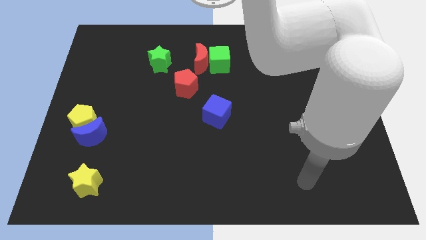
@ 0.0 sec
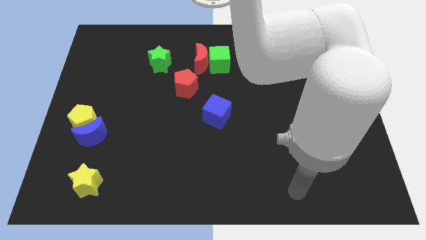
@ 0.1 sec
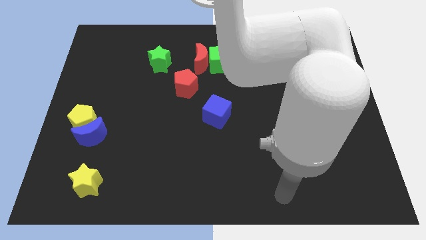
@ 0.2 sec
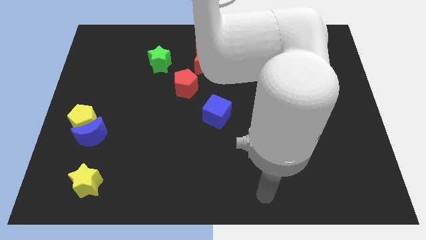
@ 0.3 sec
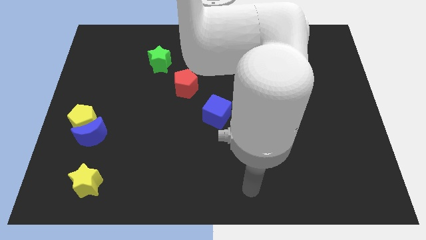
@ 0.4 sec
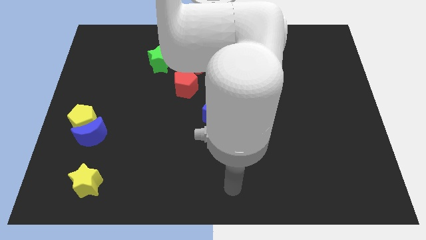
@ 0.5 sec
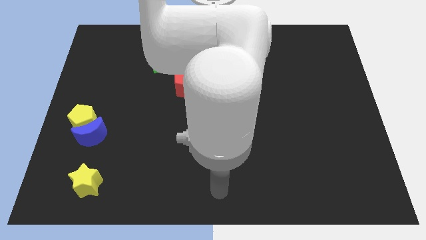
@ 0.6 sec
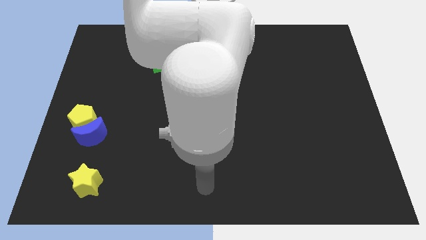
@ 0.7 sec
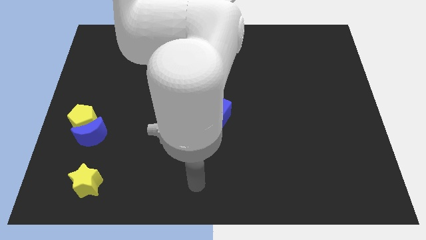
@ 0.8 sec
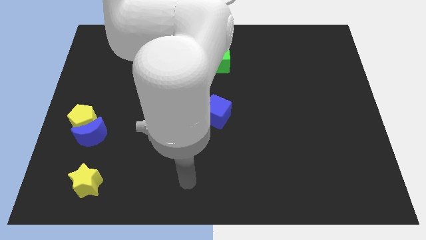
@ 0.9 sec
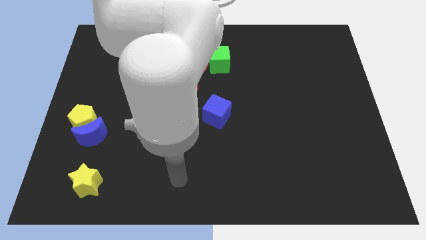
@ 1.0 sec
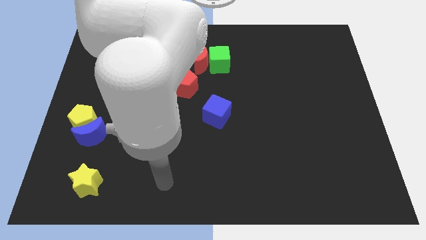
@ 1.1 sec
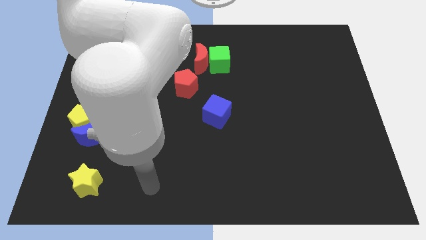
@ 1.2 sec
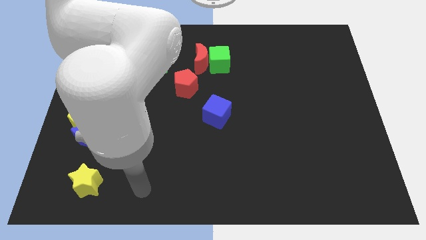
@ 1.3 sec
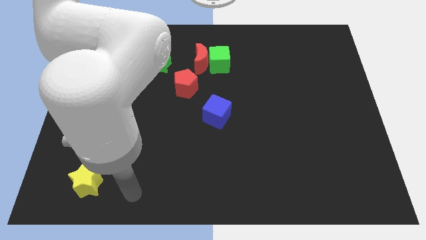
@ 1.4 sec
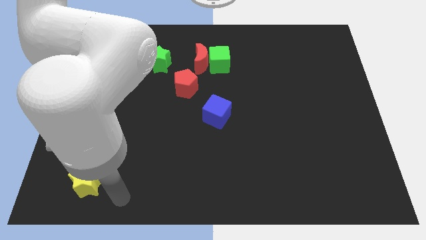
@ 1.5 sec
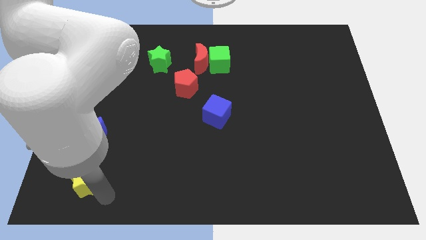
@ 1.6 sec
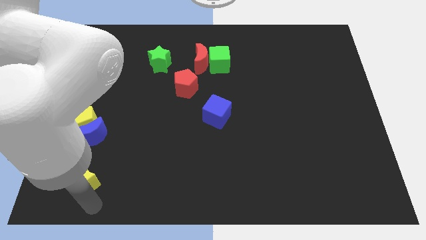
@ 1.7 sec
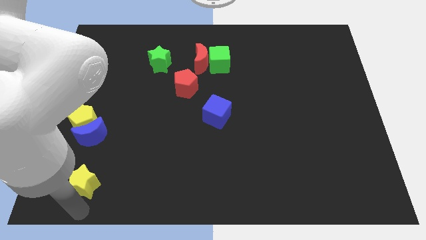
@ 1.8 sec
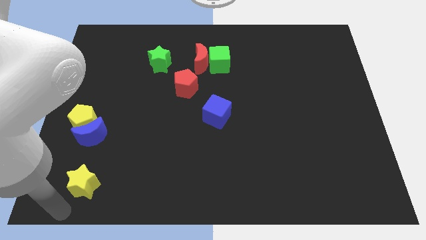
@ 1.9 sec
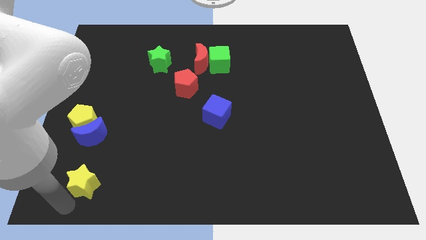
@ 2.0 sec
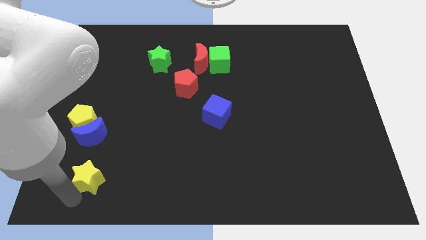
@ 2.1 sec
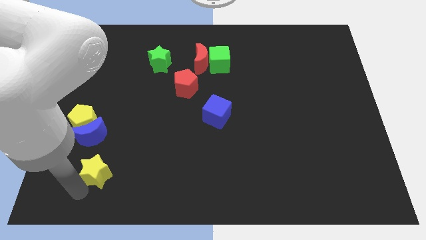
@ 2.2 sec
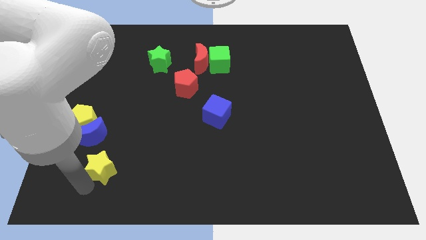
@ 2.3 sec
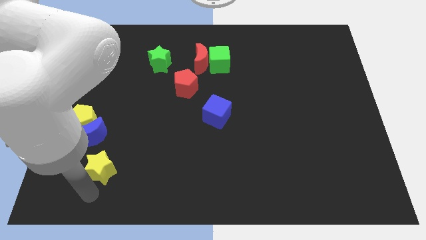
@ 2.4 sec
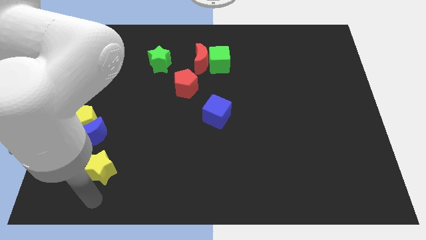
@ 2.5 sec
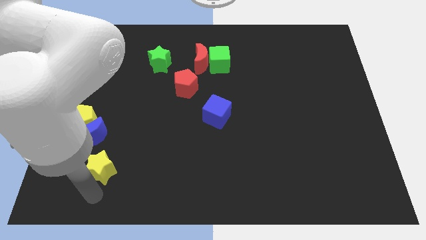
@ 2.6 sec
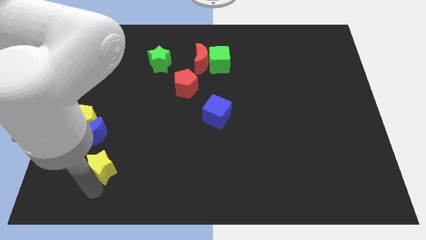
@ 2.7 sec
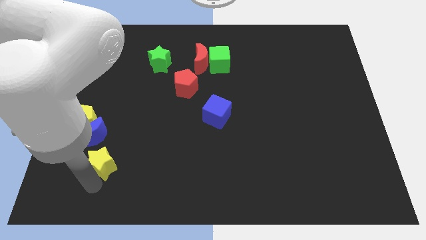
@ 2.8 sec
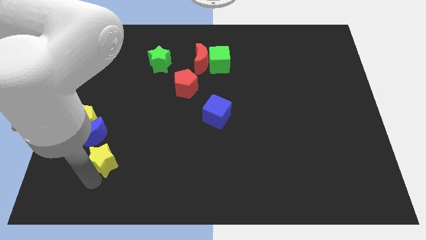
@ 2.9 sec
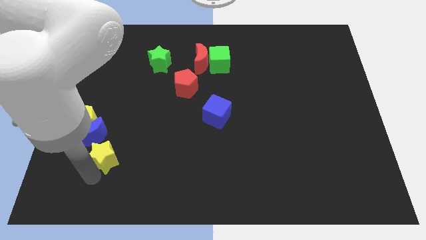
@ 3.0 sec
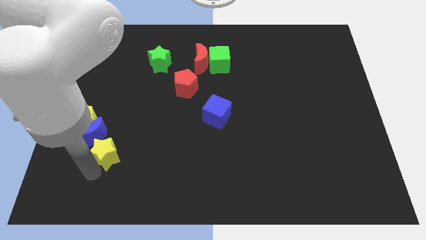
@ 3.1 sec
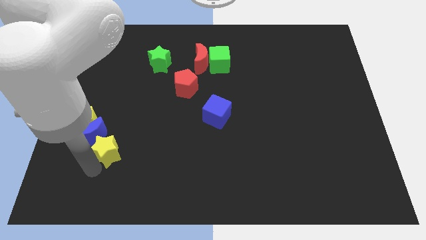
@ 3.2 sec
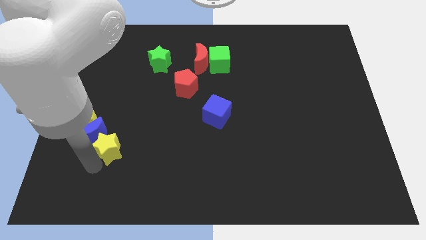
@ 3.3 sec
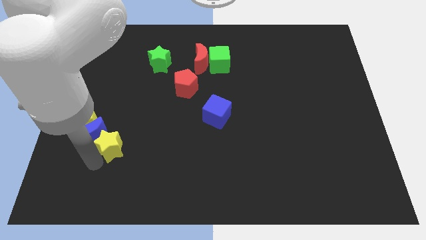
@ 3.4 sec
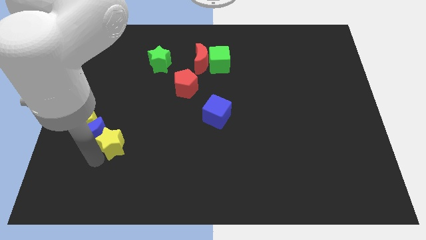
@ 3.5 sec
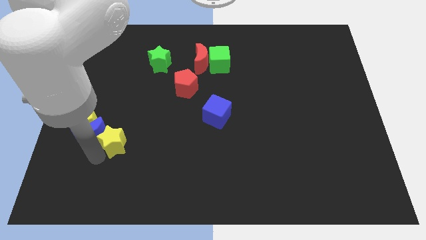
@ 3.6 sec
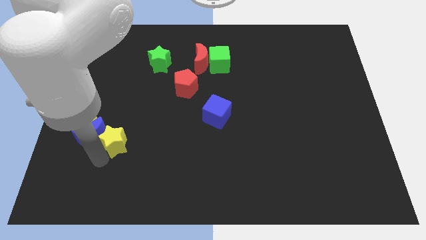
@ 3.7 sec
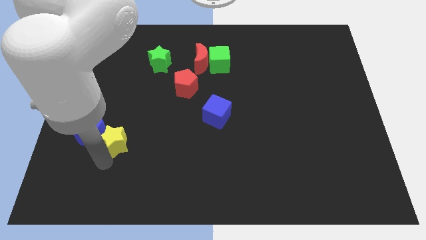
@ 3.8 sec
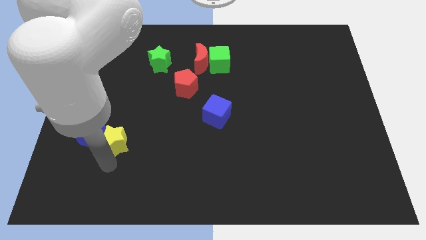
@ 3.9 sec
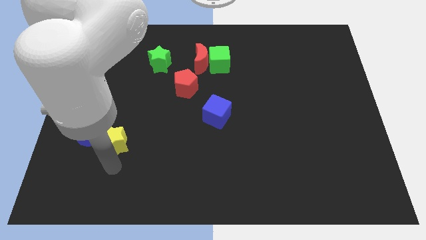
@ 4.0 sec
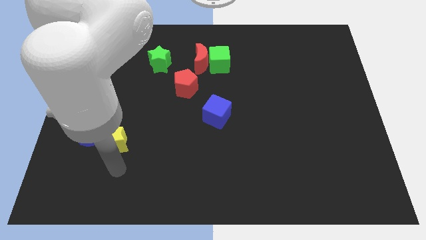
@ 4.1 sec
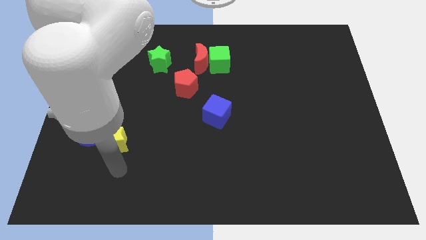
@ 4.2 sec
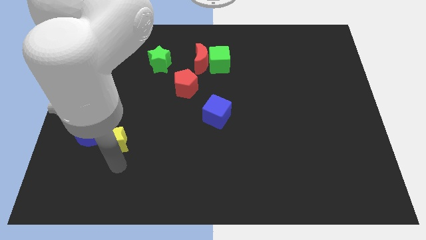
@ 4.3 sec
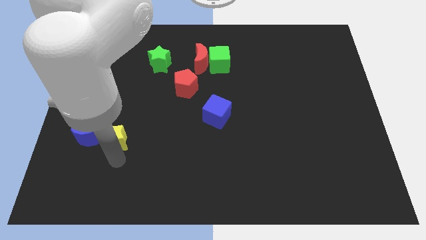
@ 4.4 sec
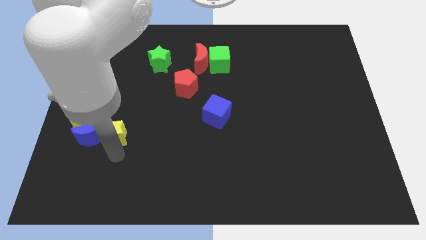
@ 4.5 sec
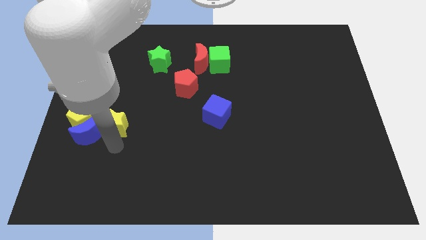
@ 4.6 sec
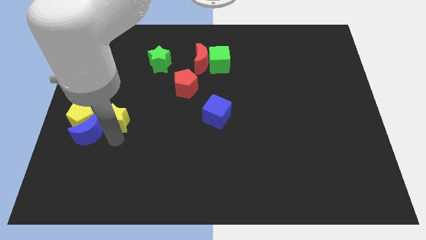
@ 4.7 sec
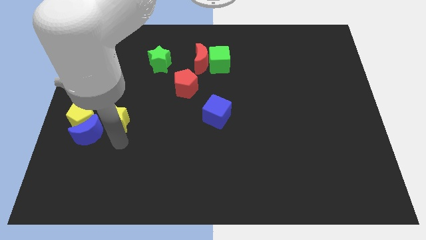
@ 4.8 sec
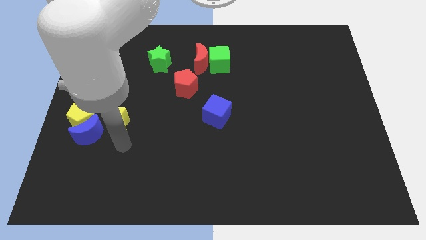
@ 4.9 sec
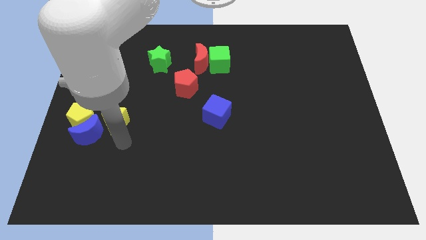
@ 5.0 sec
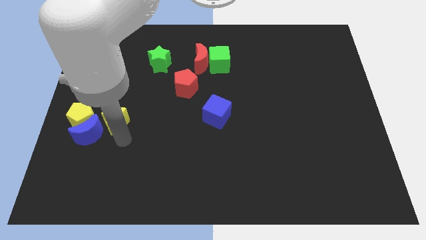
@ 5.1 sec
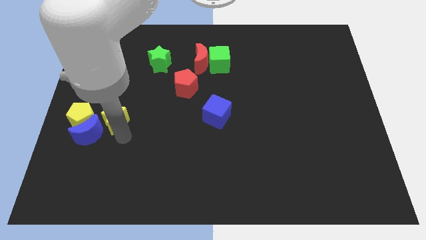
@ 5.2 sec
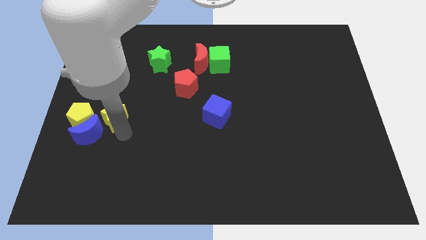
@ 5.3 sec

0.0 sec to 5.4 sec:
push the yellow star diagonally up and to the right of the yellow pentagon

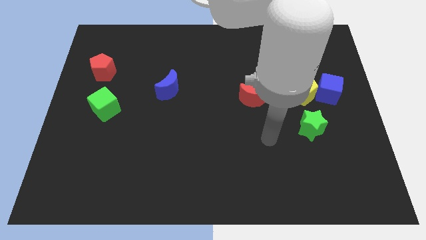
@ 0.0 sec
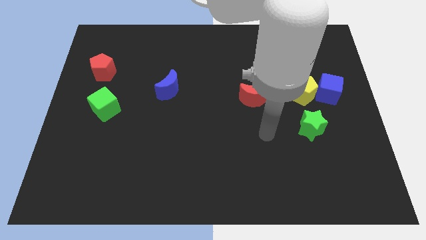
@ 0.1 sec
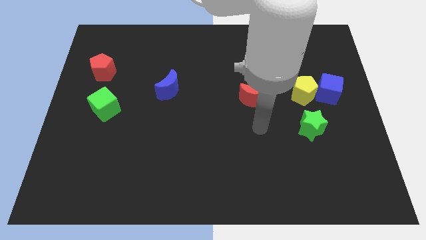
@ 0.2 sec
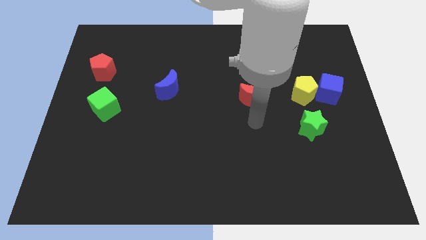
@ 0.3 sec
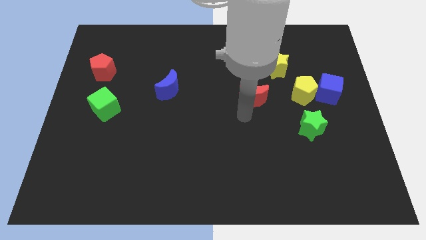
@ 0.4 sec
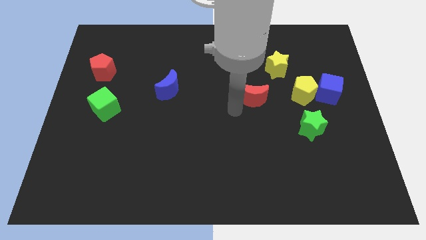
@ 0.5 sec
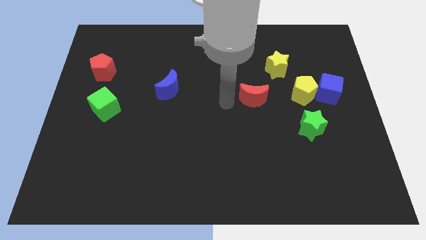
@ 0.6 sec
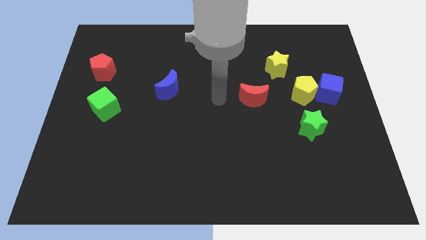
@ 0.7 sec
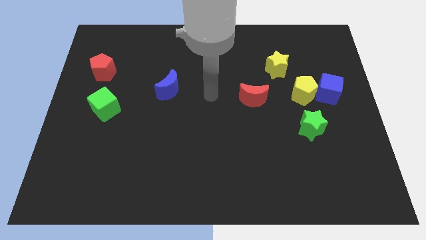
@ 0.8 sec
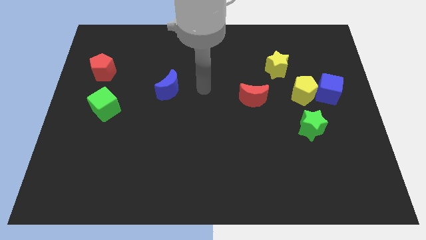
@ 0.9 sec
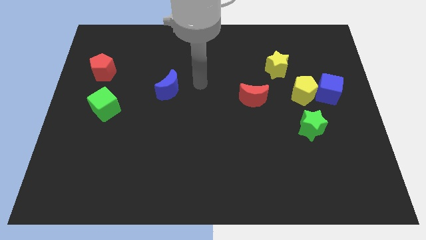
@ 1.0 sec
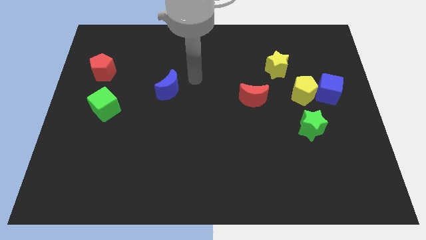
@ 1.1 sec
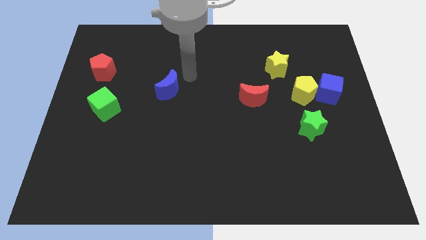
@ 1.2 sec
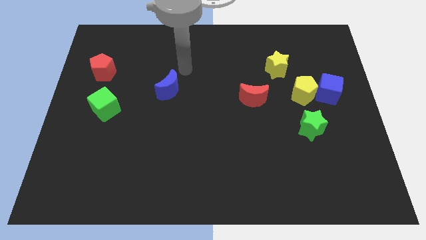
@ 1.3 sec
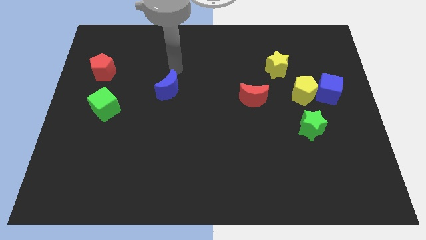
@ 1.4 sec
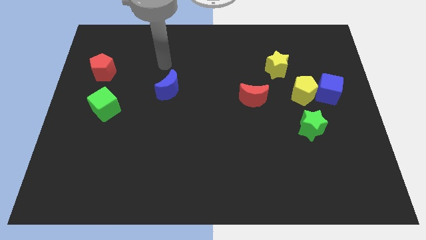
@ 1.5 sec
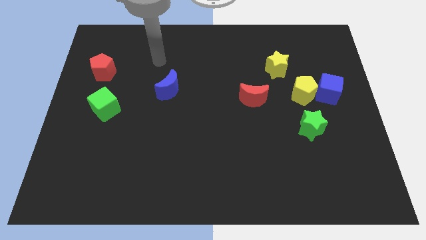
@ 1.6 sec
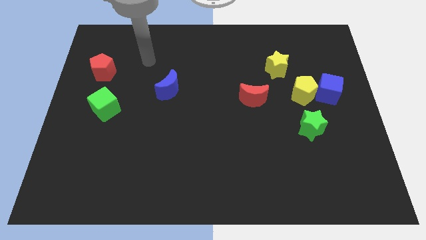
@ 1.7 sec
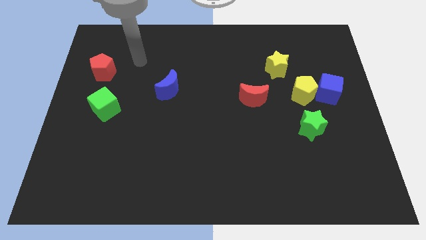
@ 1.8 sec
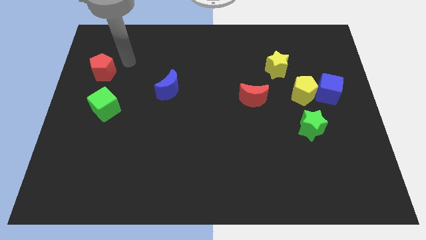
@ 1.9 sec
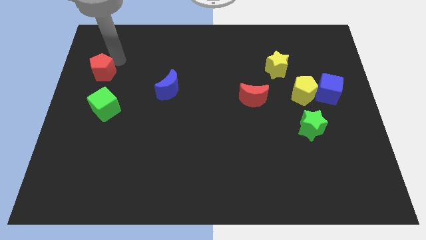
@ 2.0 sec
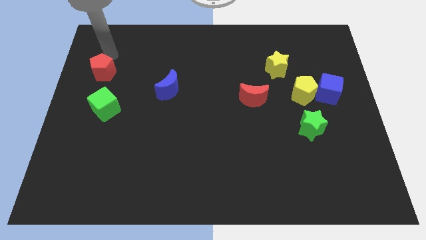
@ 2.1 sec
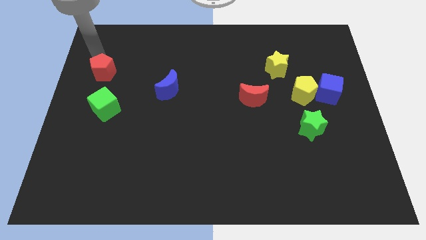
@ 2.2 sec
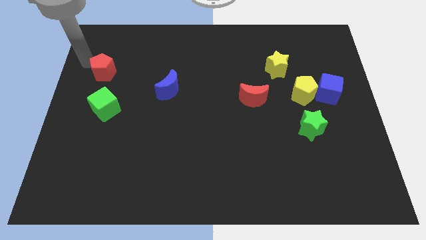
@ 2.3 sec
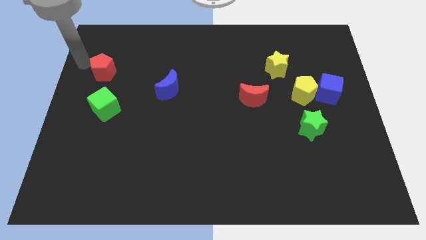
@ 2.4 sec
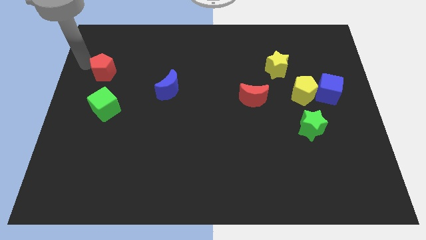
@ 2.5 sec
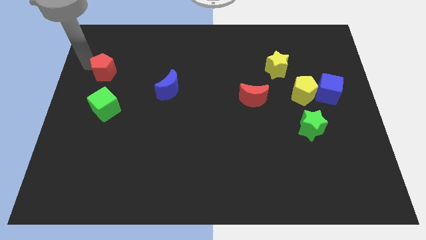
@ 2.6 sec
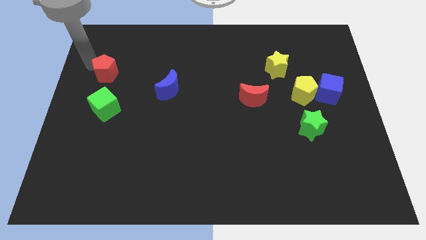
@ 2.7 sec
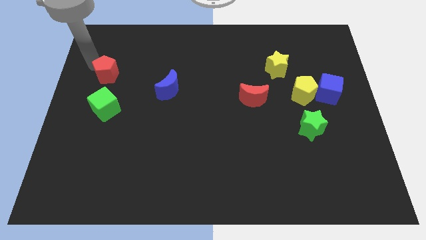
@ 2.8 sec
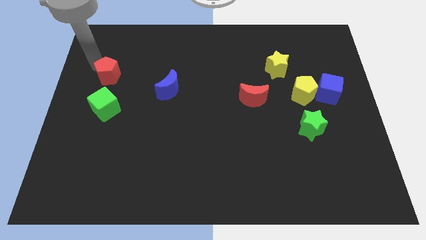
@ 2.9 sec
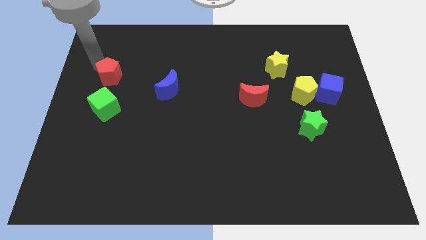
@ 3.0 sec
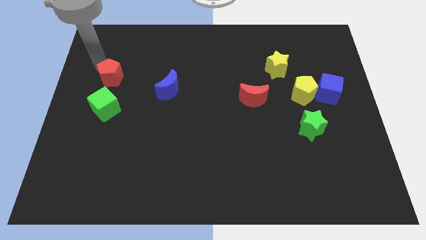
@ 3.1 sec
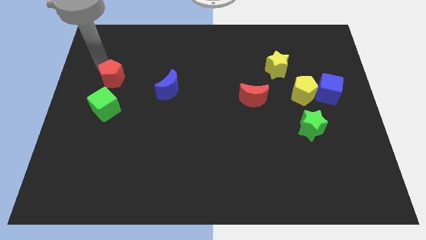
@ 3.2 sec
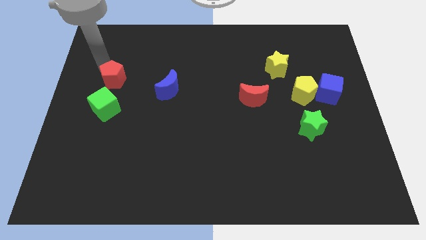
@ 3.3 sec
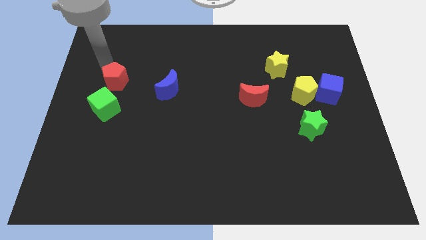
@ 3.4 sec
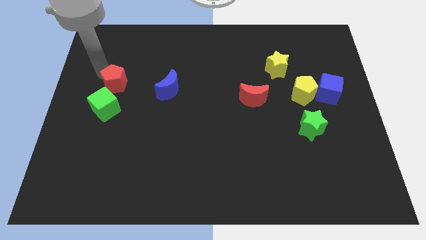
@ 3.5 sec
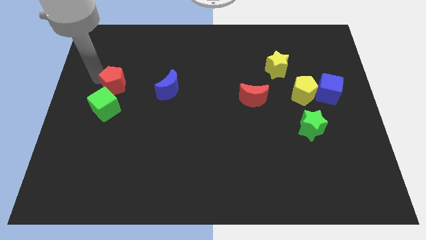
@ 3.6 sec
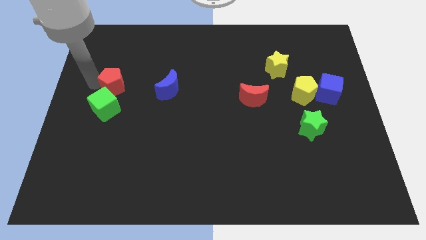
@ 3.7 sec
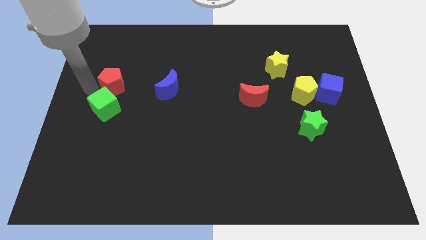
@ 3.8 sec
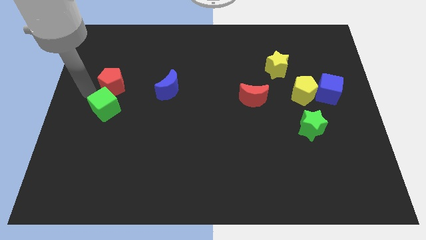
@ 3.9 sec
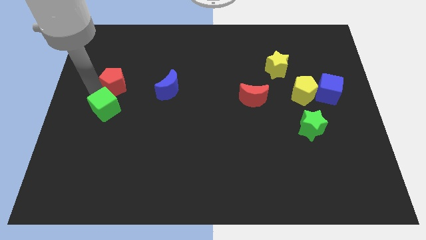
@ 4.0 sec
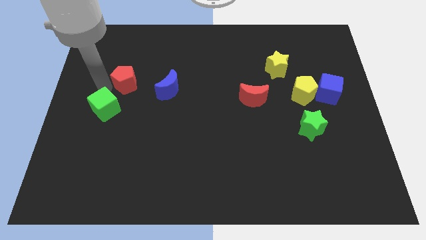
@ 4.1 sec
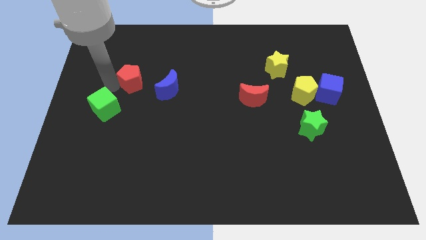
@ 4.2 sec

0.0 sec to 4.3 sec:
move the red pentagon to the top left side of the blue moon
